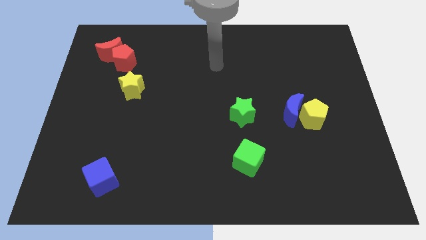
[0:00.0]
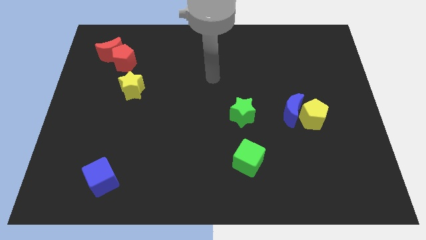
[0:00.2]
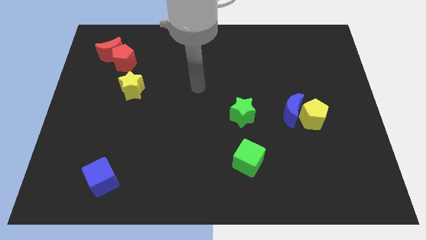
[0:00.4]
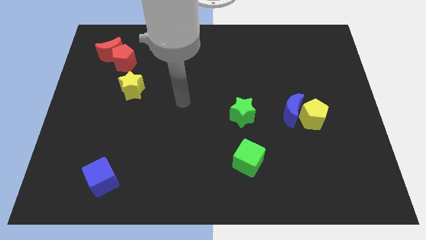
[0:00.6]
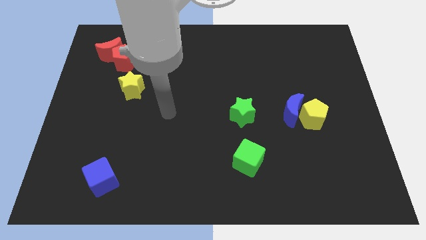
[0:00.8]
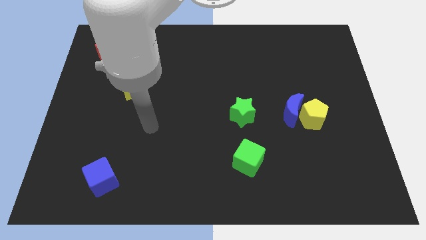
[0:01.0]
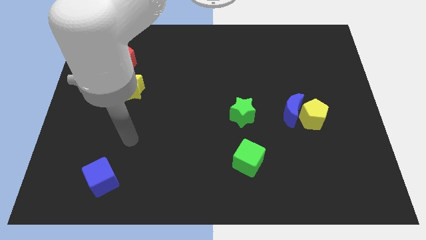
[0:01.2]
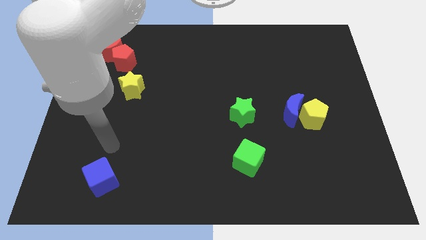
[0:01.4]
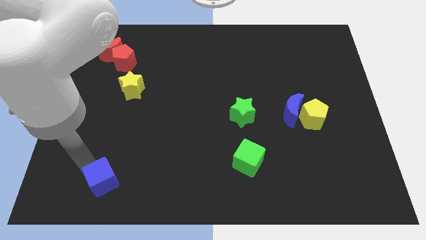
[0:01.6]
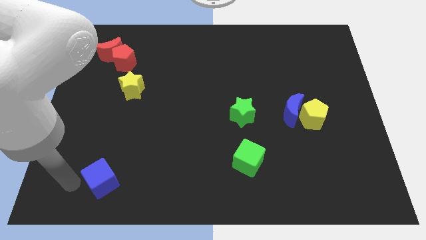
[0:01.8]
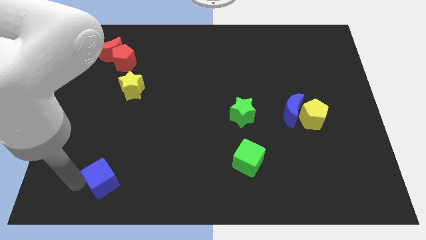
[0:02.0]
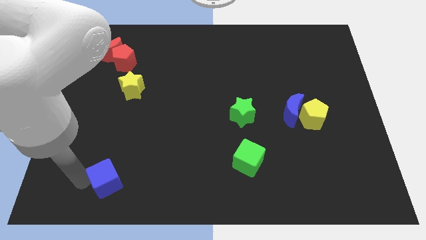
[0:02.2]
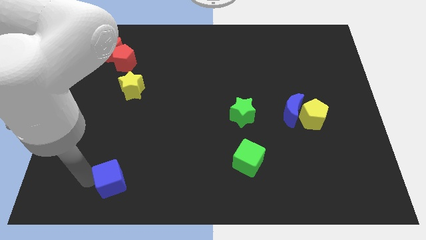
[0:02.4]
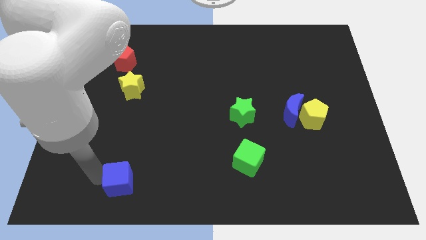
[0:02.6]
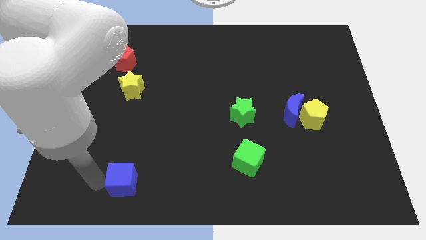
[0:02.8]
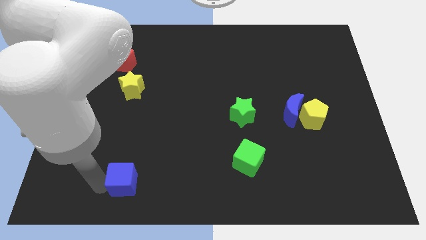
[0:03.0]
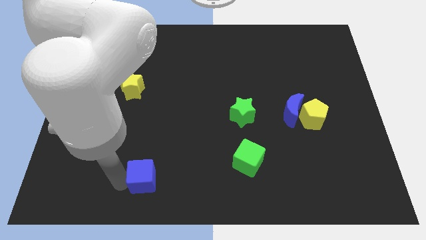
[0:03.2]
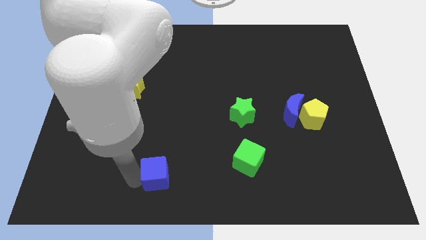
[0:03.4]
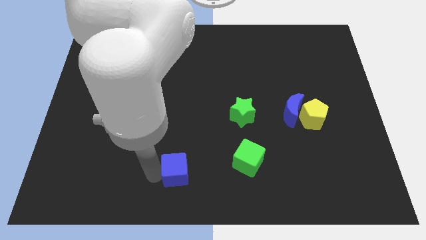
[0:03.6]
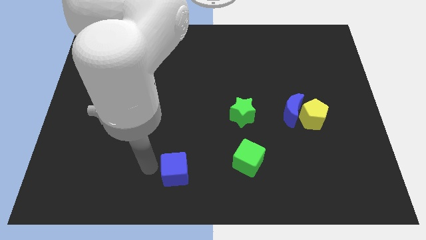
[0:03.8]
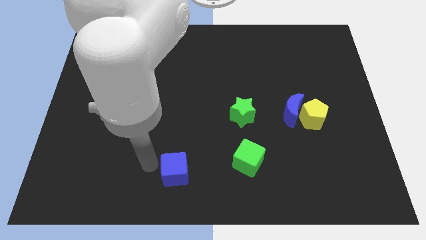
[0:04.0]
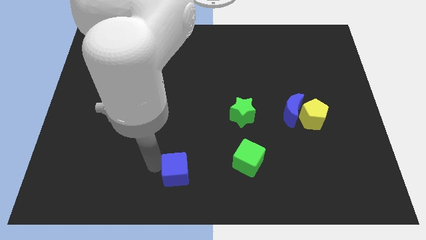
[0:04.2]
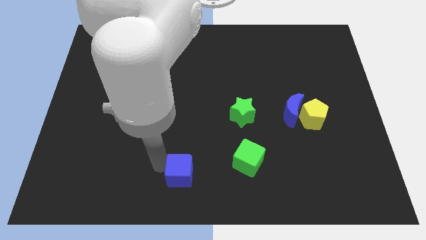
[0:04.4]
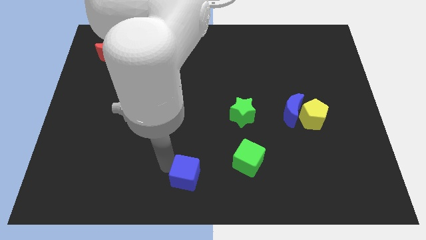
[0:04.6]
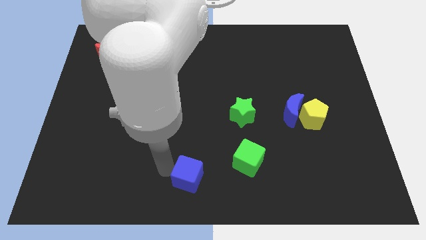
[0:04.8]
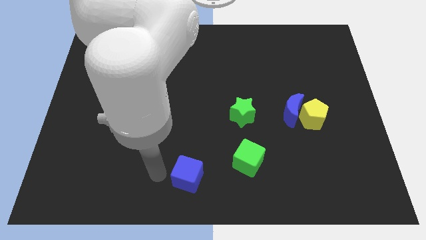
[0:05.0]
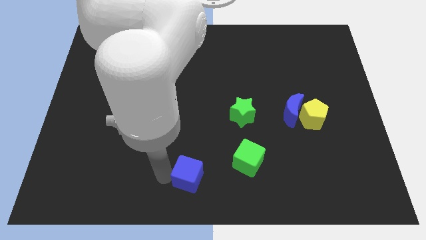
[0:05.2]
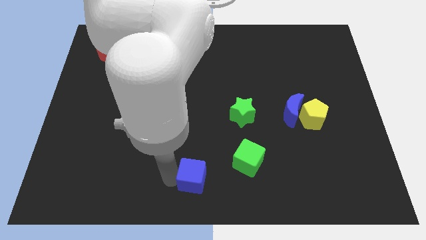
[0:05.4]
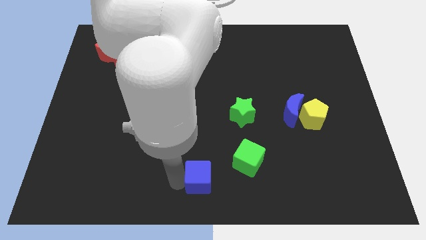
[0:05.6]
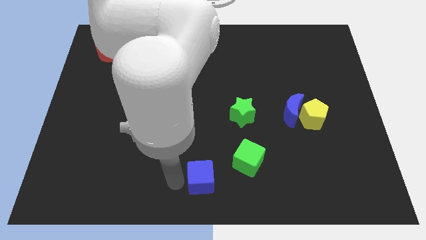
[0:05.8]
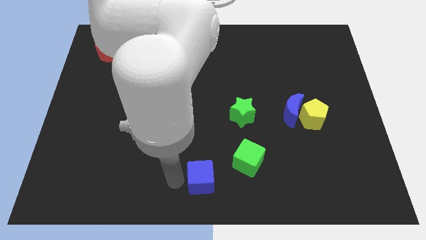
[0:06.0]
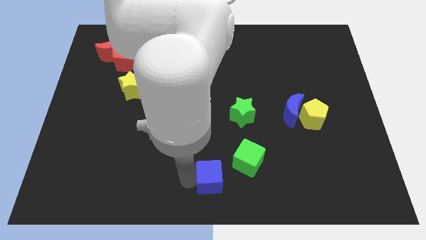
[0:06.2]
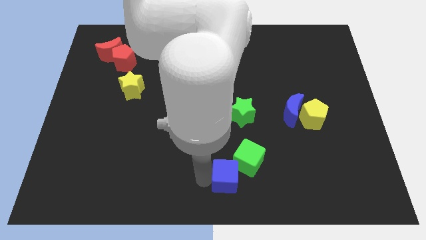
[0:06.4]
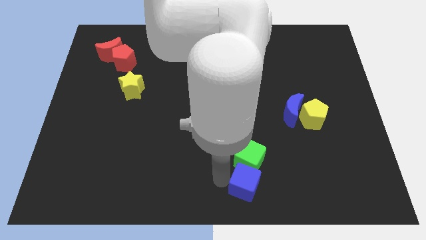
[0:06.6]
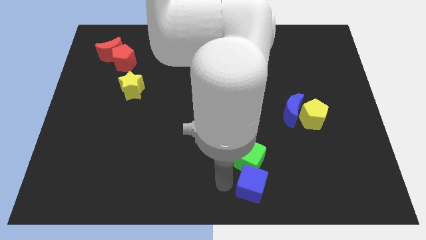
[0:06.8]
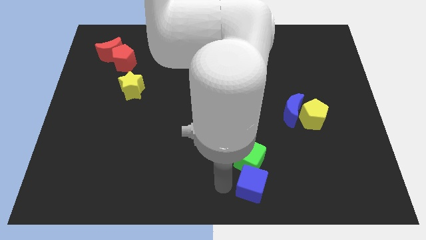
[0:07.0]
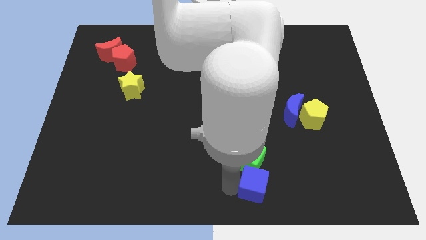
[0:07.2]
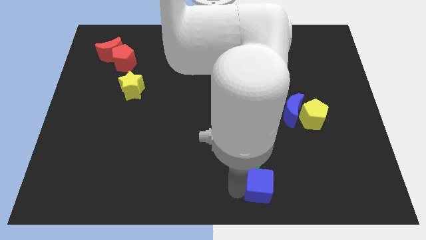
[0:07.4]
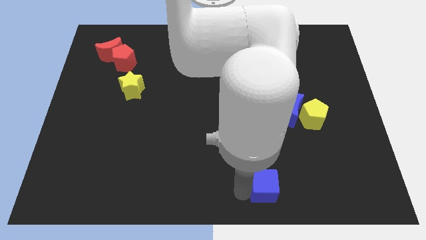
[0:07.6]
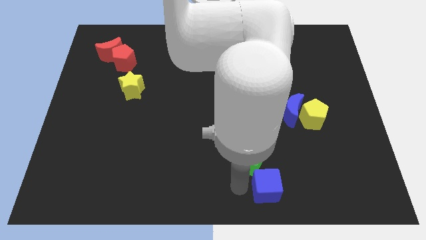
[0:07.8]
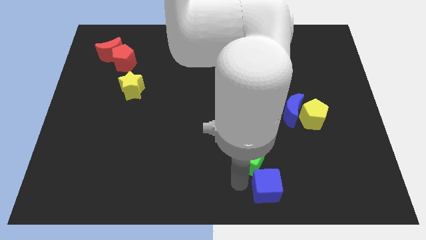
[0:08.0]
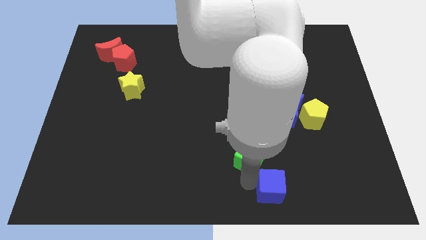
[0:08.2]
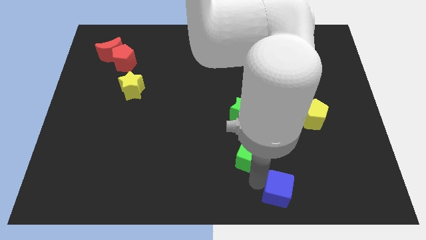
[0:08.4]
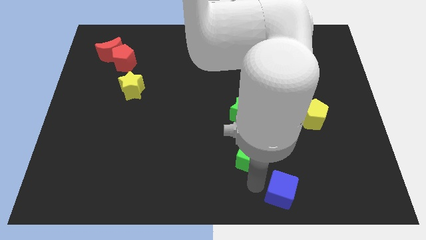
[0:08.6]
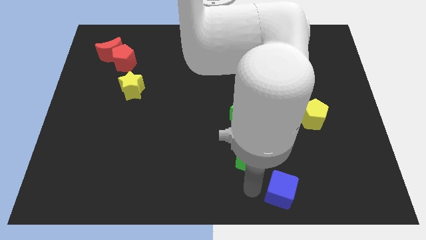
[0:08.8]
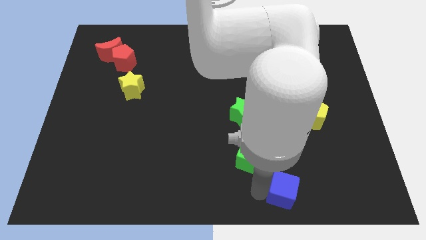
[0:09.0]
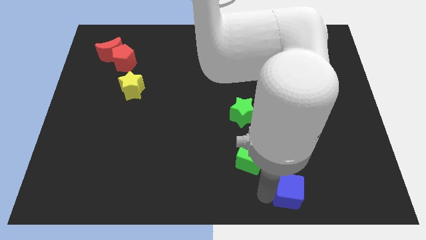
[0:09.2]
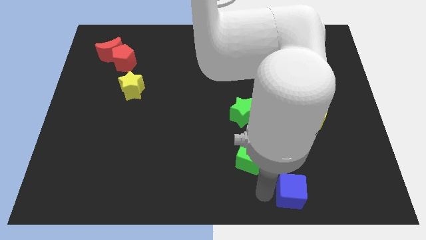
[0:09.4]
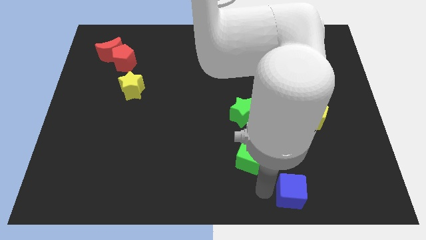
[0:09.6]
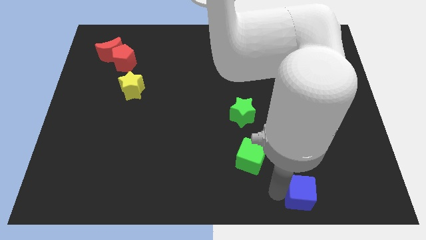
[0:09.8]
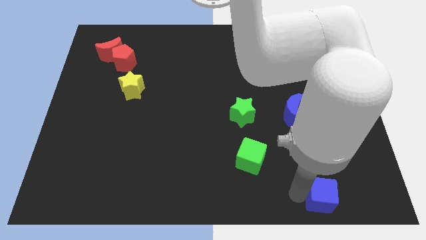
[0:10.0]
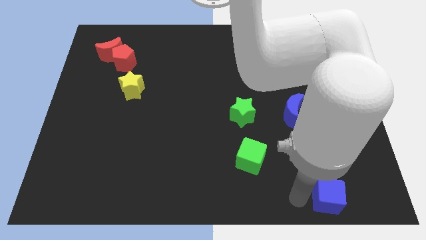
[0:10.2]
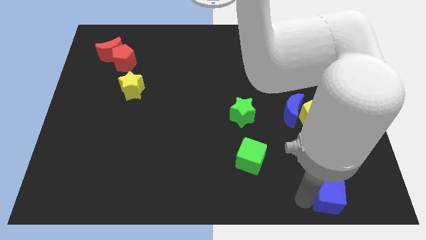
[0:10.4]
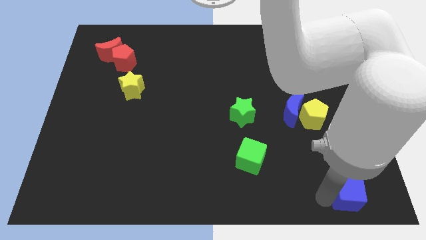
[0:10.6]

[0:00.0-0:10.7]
move the blue cube to the bottom right of the board

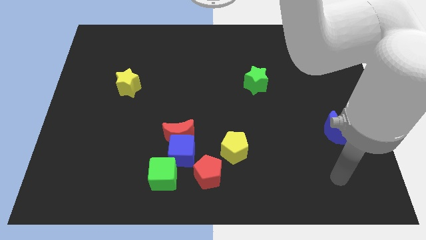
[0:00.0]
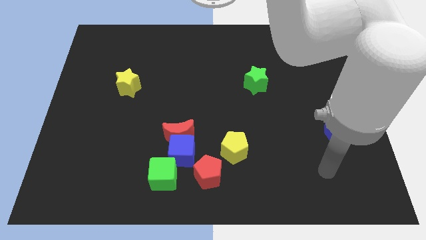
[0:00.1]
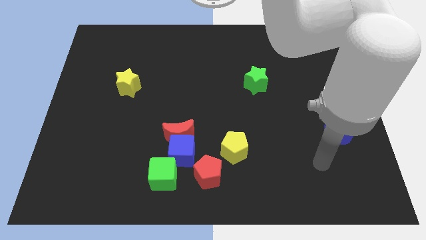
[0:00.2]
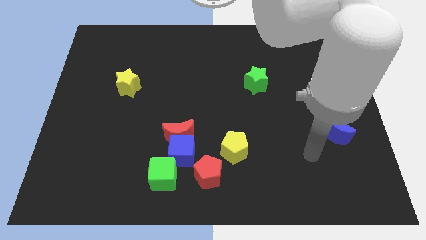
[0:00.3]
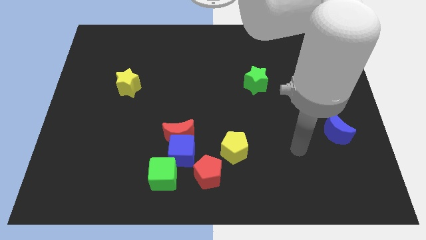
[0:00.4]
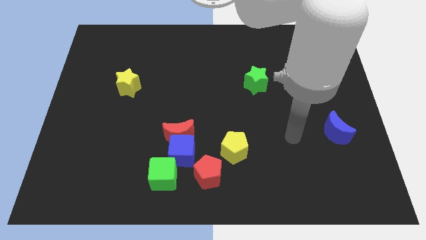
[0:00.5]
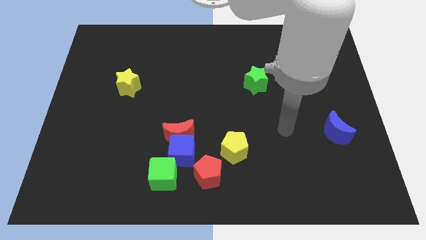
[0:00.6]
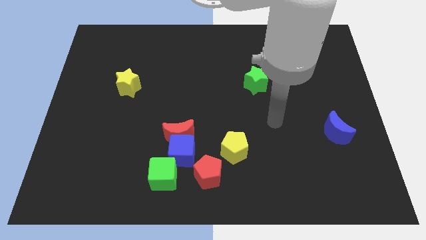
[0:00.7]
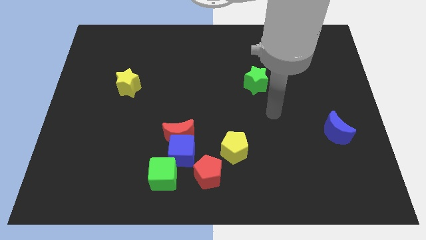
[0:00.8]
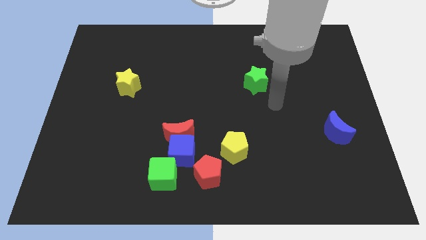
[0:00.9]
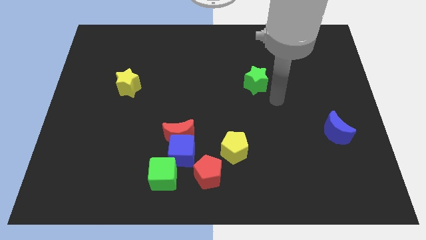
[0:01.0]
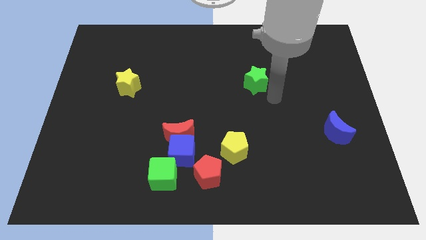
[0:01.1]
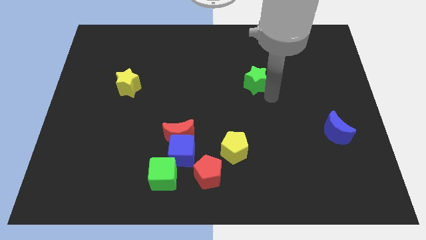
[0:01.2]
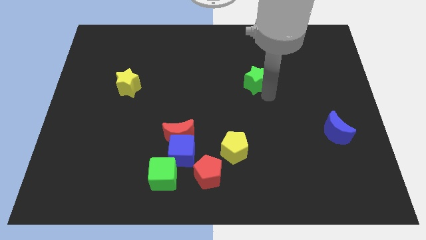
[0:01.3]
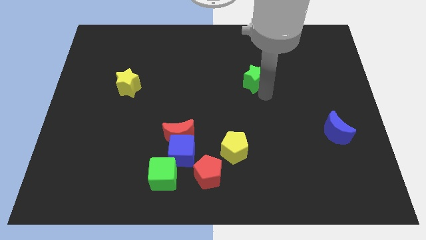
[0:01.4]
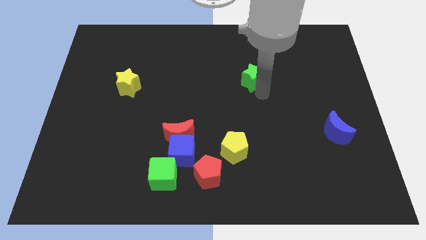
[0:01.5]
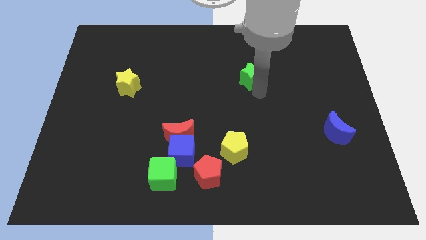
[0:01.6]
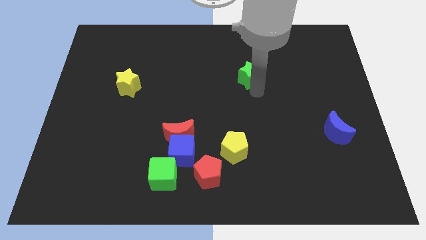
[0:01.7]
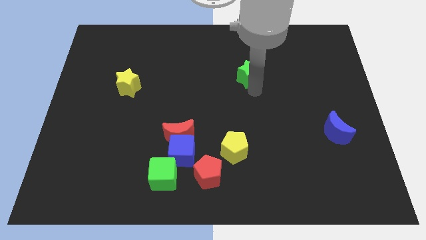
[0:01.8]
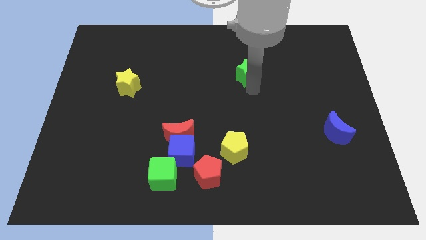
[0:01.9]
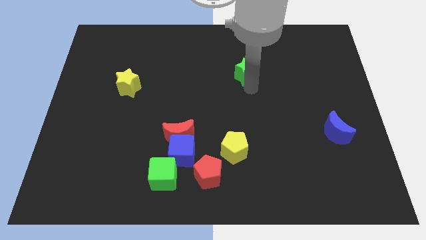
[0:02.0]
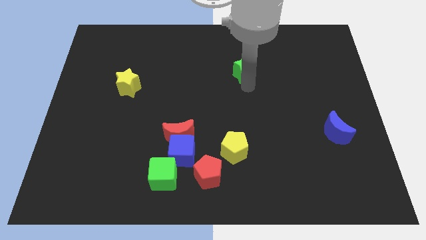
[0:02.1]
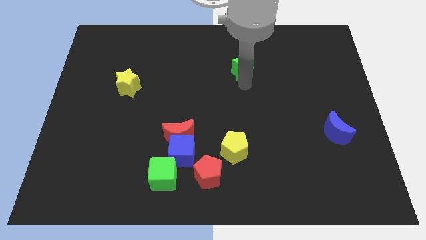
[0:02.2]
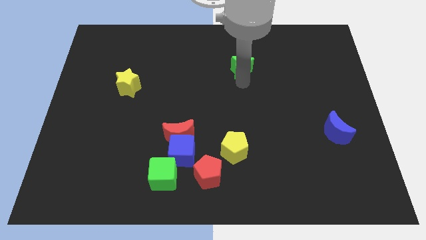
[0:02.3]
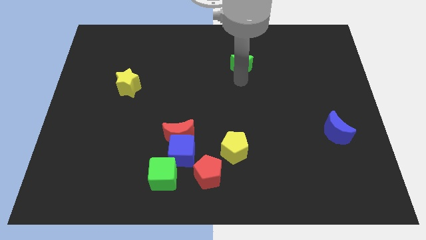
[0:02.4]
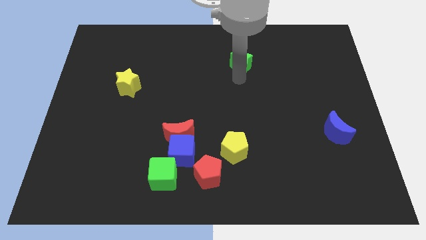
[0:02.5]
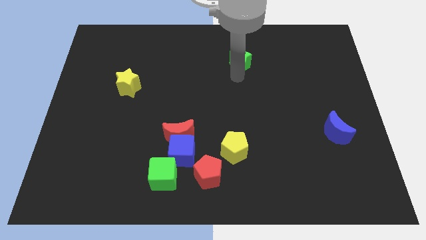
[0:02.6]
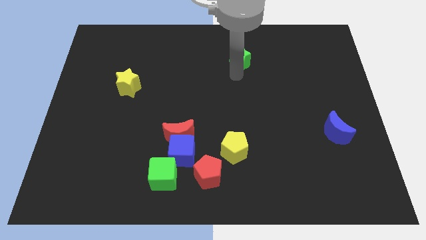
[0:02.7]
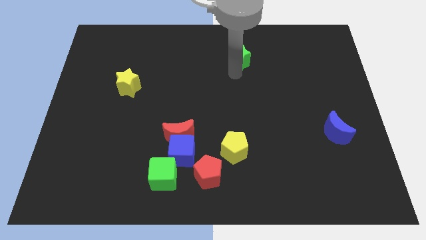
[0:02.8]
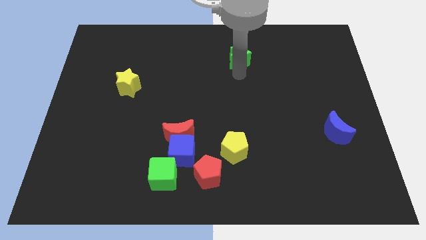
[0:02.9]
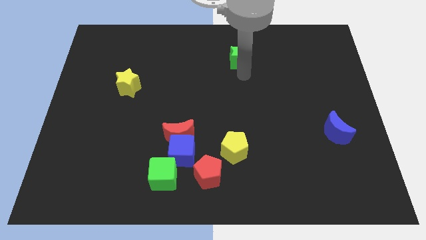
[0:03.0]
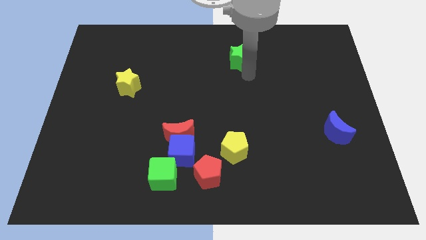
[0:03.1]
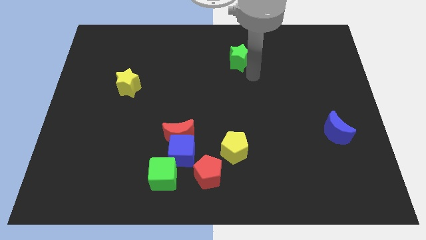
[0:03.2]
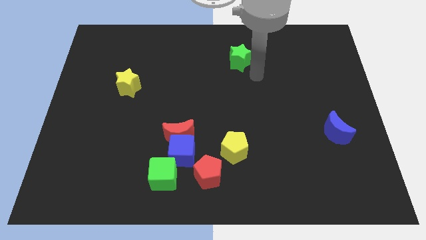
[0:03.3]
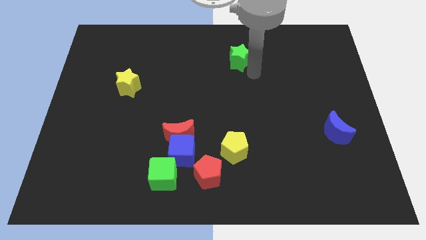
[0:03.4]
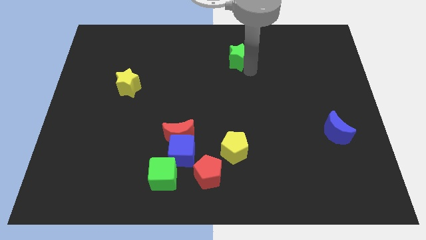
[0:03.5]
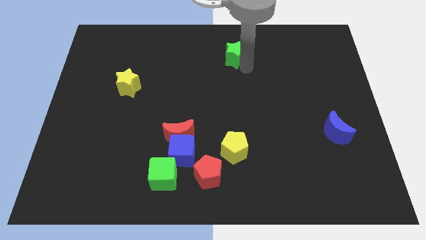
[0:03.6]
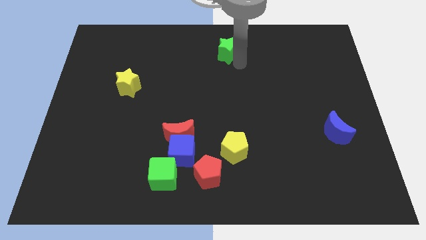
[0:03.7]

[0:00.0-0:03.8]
move the green star to the top
